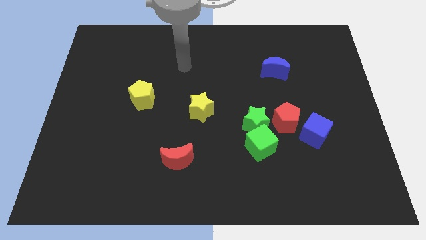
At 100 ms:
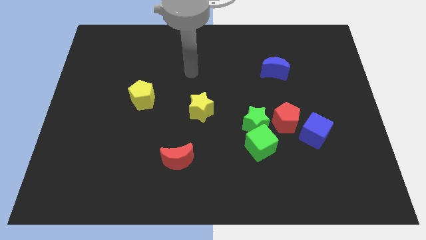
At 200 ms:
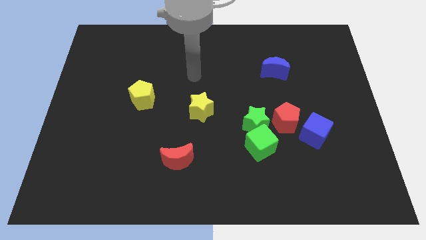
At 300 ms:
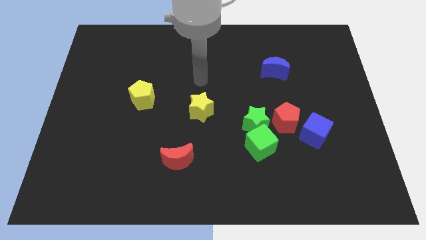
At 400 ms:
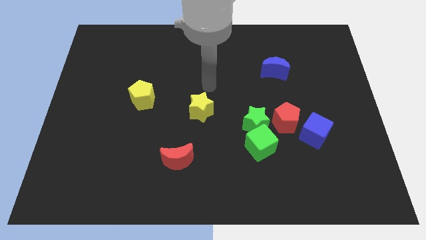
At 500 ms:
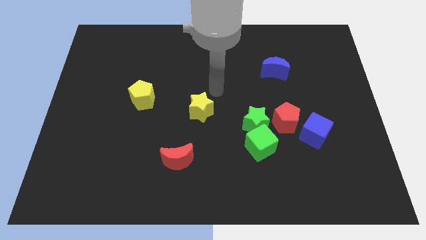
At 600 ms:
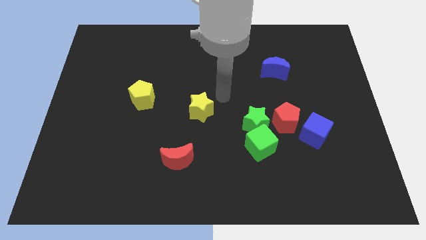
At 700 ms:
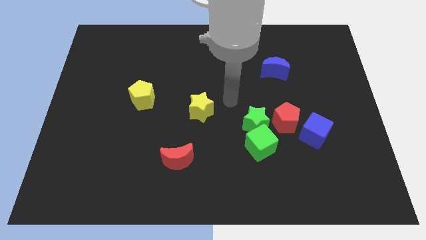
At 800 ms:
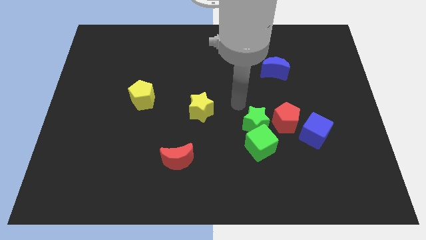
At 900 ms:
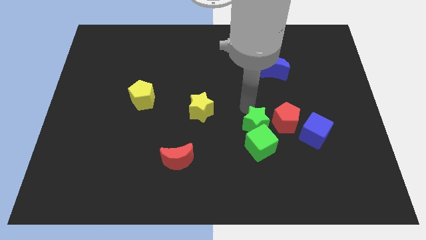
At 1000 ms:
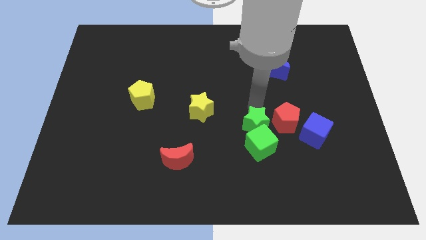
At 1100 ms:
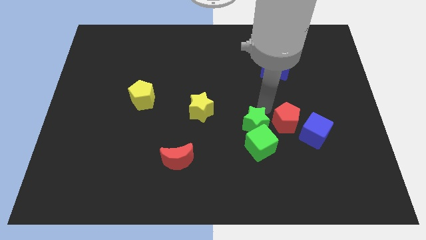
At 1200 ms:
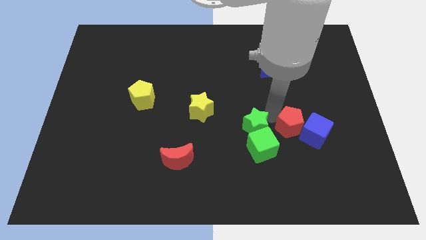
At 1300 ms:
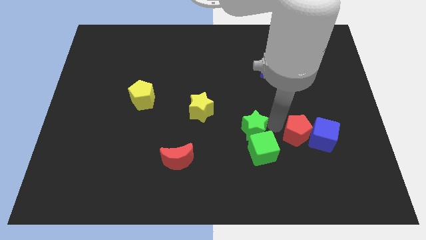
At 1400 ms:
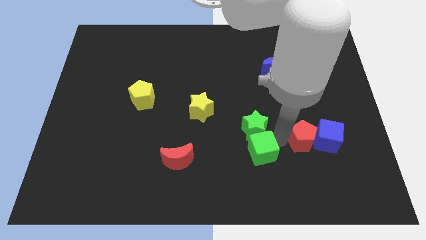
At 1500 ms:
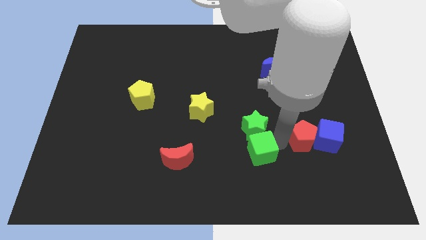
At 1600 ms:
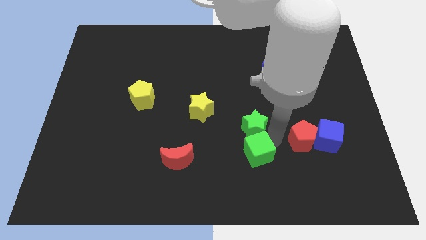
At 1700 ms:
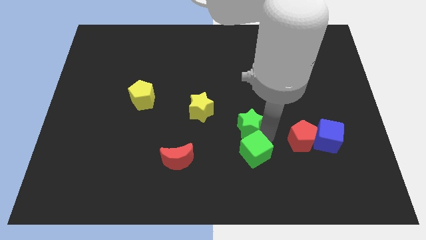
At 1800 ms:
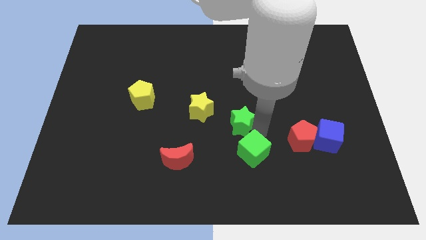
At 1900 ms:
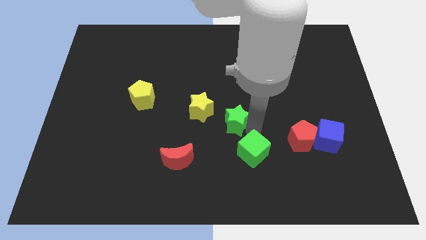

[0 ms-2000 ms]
move the green star away from the green cube and red pentagon

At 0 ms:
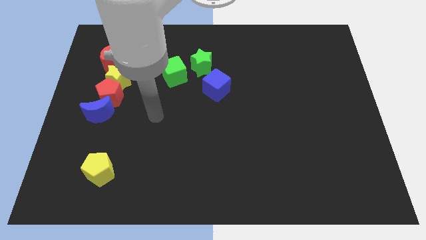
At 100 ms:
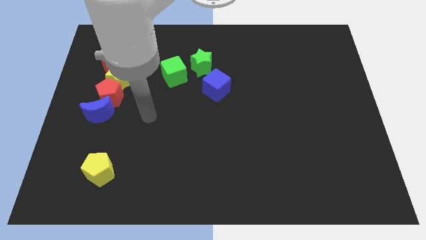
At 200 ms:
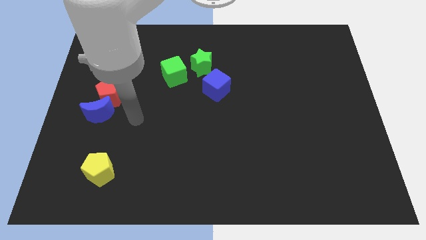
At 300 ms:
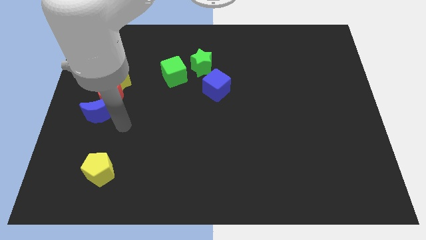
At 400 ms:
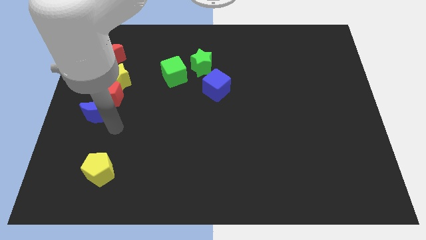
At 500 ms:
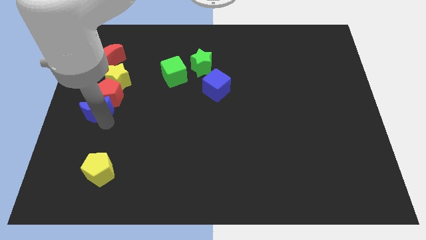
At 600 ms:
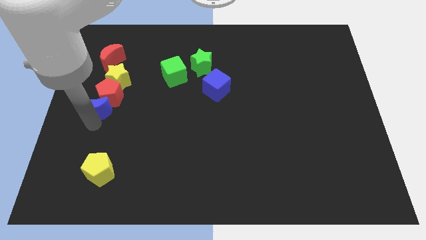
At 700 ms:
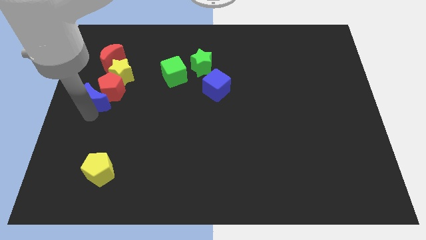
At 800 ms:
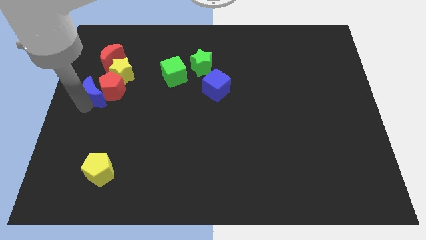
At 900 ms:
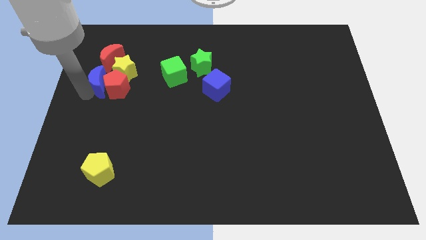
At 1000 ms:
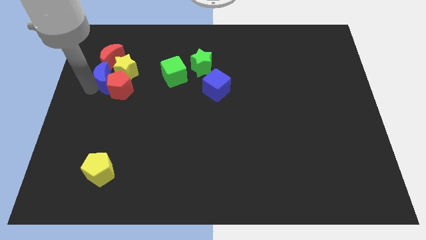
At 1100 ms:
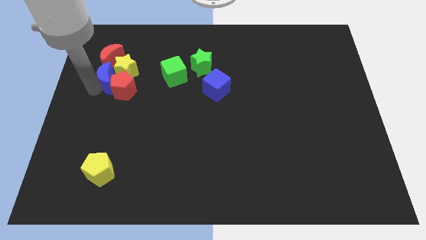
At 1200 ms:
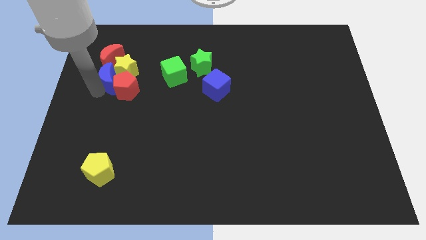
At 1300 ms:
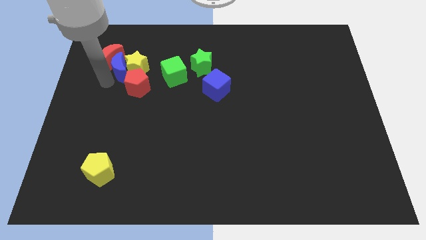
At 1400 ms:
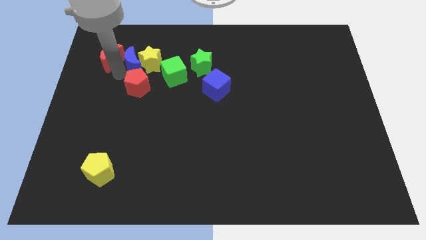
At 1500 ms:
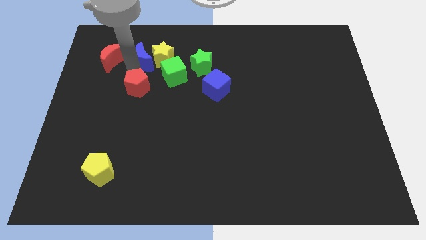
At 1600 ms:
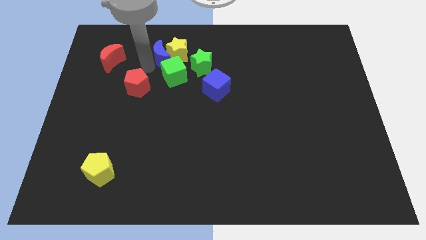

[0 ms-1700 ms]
move the red pentagon away from the yellow star and blue moon

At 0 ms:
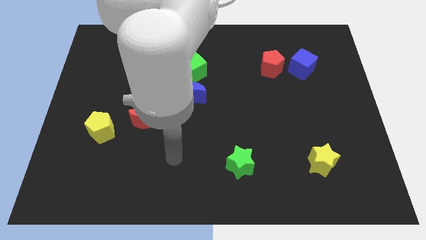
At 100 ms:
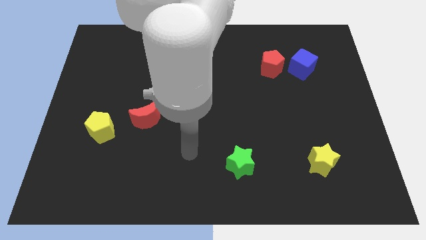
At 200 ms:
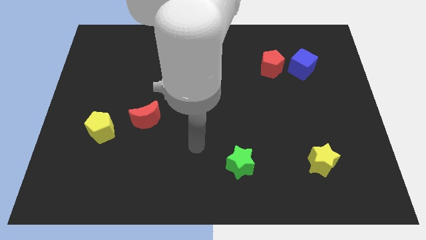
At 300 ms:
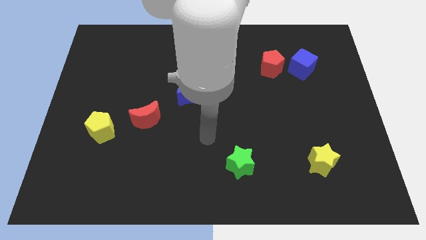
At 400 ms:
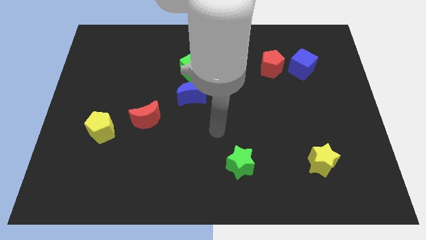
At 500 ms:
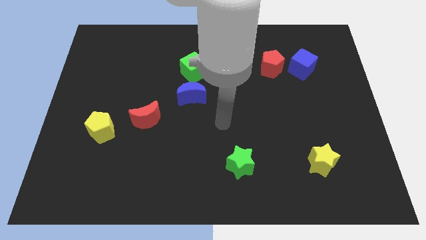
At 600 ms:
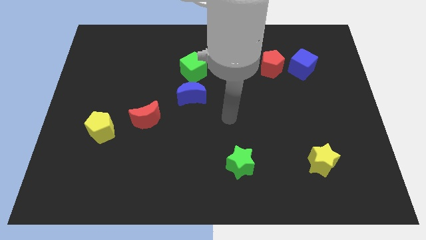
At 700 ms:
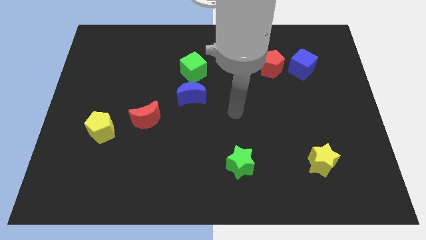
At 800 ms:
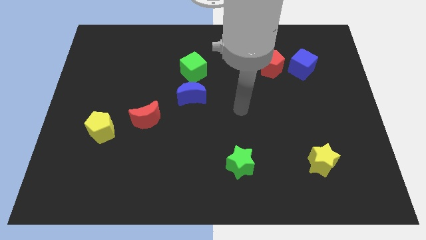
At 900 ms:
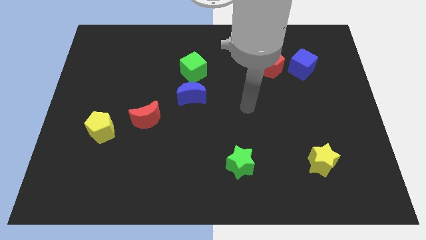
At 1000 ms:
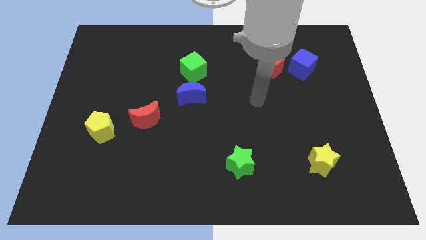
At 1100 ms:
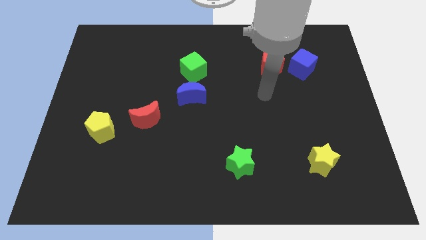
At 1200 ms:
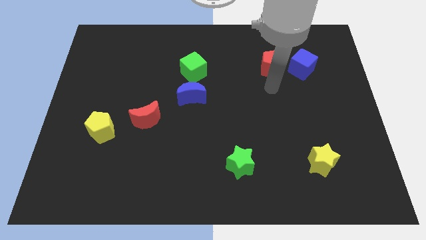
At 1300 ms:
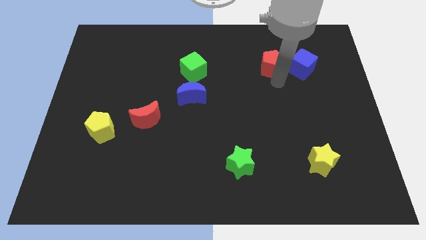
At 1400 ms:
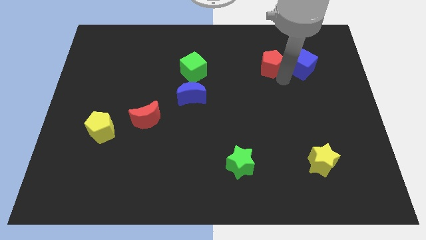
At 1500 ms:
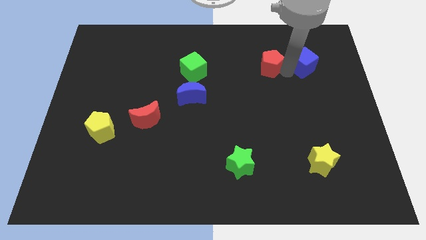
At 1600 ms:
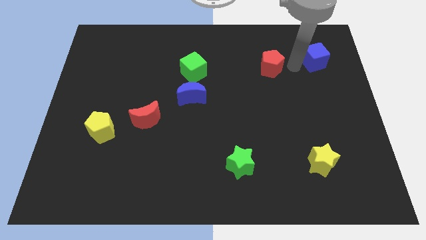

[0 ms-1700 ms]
separate the red pentagon from the blue cube

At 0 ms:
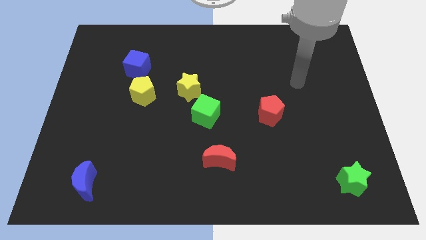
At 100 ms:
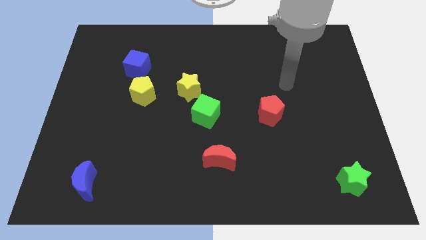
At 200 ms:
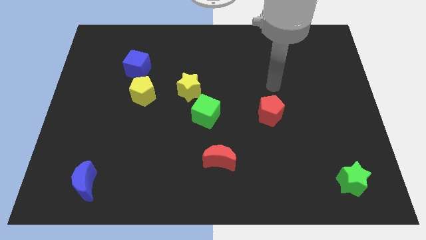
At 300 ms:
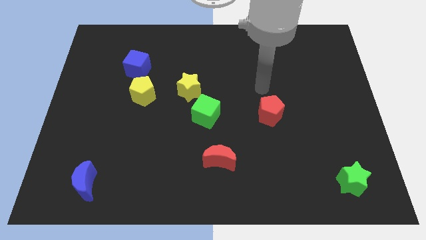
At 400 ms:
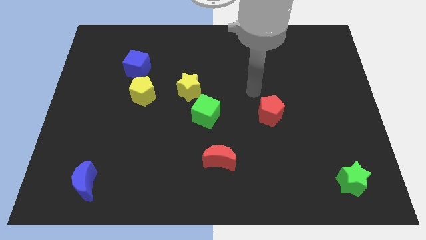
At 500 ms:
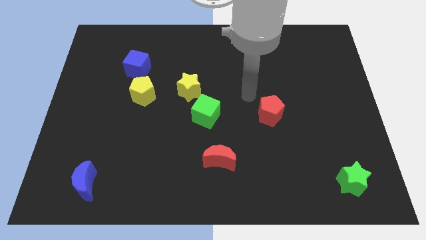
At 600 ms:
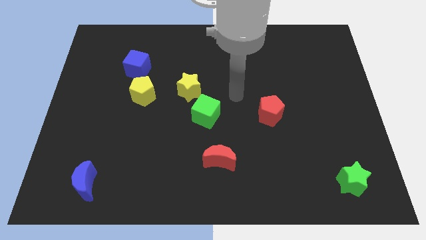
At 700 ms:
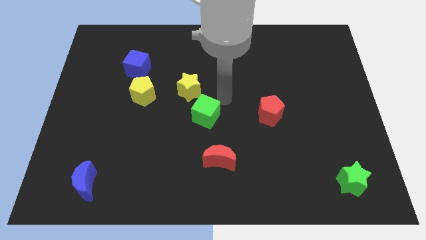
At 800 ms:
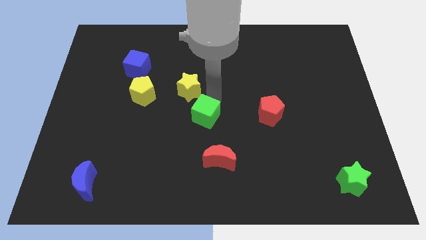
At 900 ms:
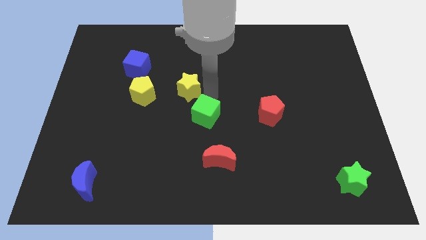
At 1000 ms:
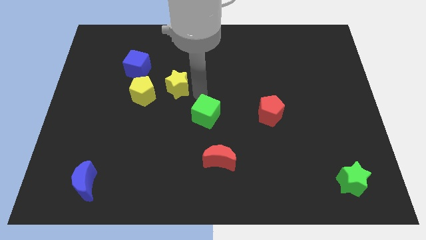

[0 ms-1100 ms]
separate the green cube from the yellow star

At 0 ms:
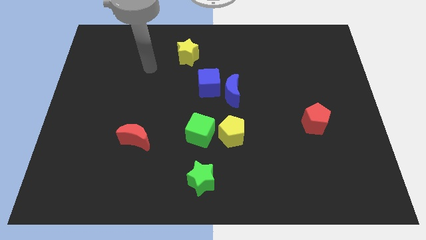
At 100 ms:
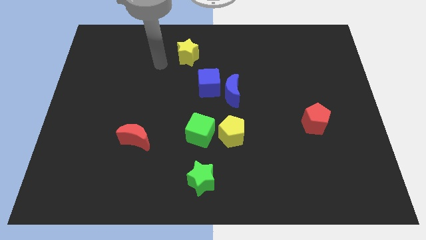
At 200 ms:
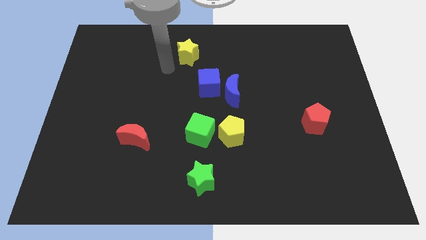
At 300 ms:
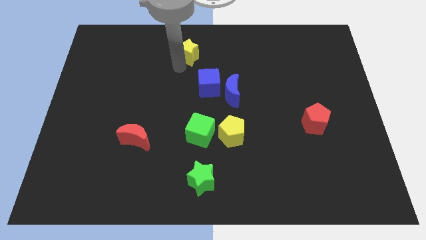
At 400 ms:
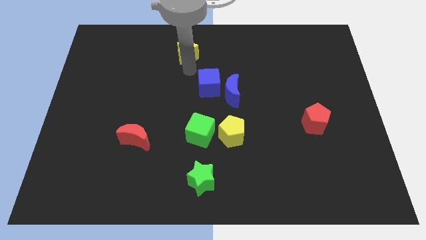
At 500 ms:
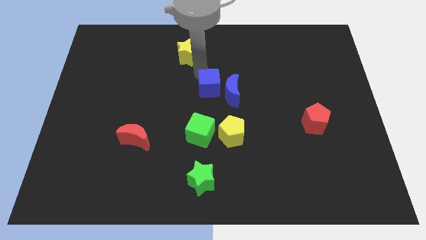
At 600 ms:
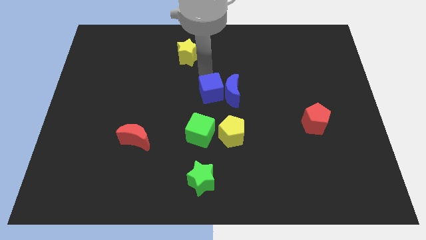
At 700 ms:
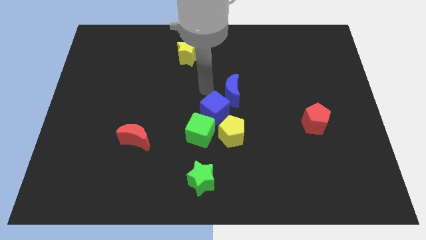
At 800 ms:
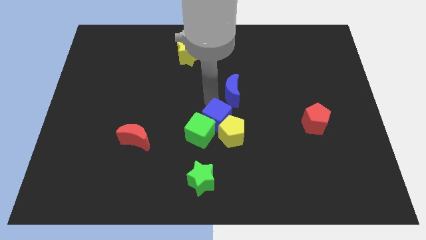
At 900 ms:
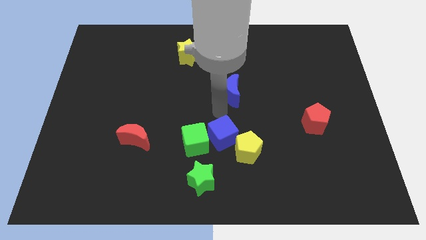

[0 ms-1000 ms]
pull the blue moon apart from the blue cube

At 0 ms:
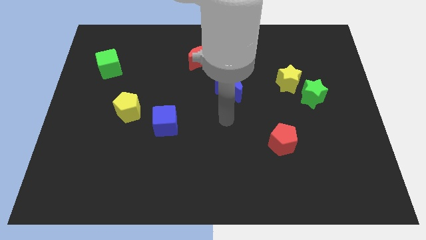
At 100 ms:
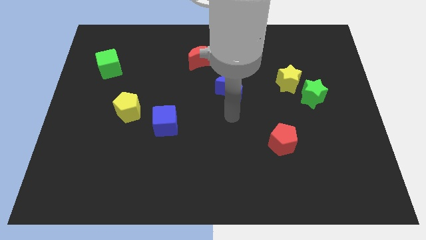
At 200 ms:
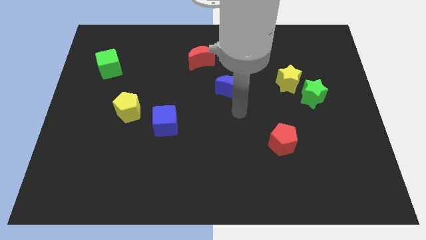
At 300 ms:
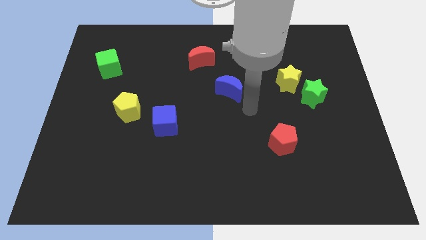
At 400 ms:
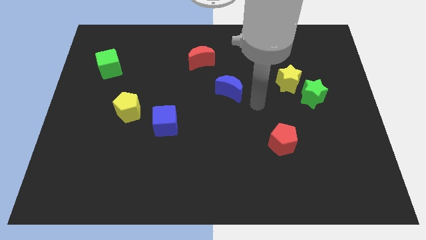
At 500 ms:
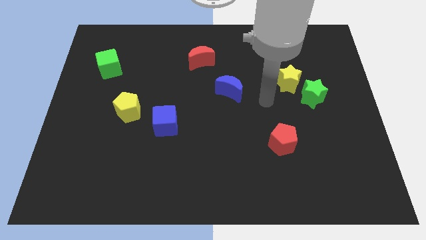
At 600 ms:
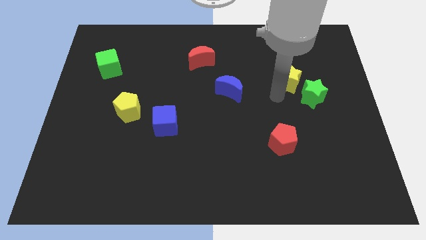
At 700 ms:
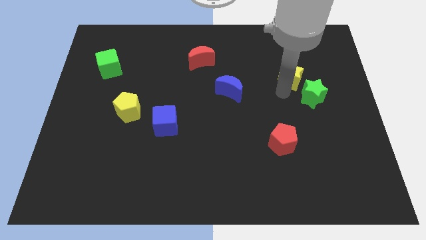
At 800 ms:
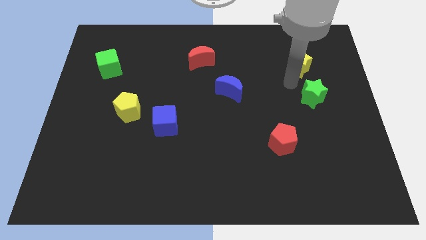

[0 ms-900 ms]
separate the green star from the yellow star

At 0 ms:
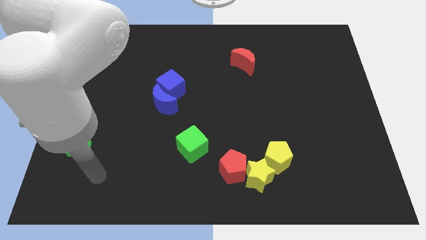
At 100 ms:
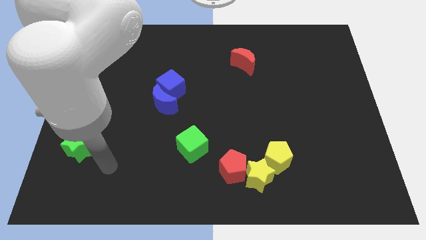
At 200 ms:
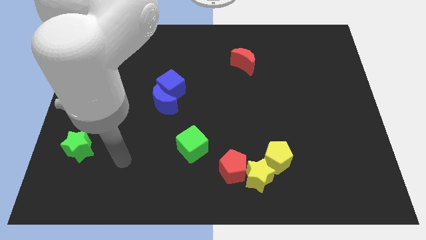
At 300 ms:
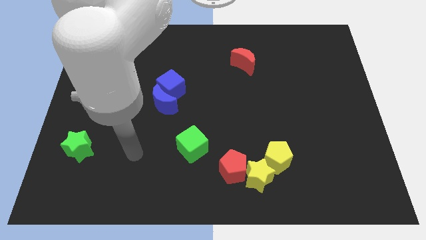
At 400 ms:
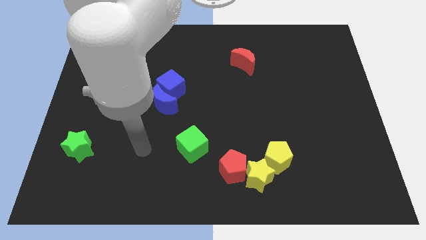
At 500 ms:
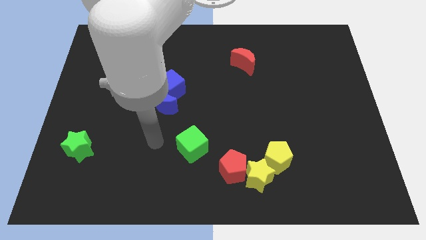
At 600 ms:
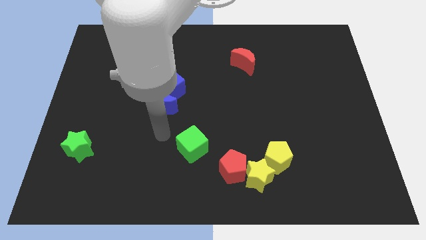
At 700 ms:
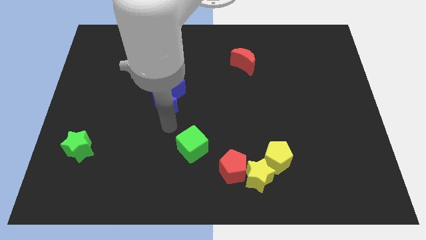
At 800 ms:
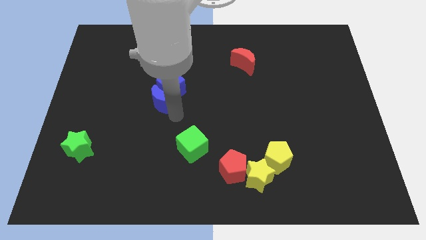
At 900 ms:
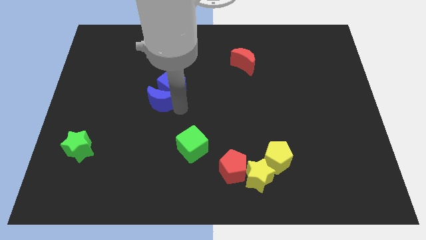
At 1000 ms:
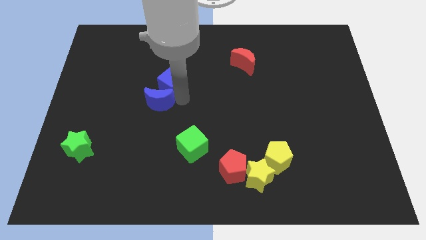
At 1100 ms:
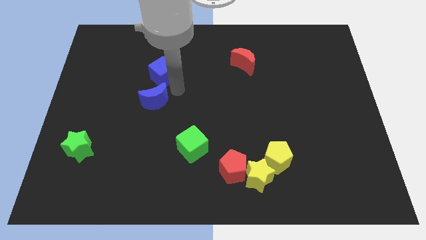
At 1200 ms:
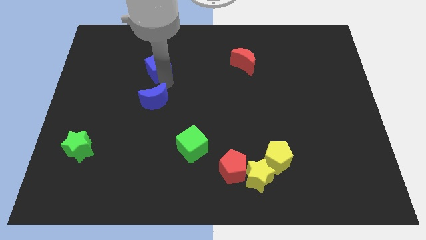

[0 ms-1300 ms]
separate the blue moon from the blue cube
